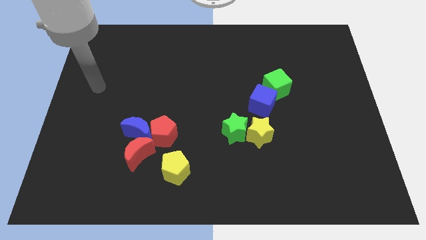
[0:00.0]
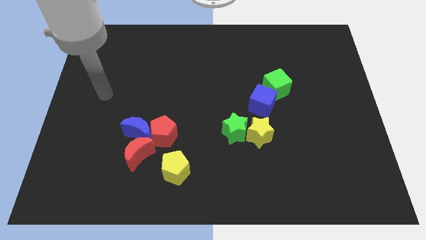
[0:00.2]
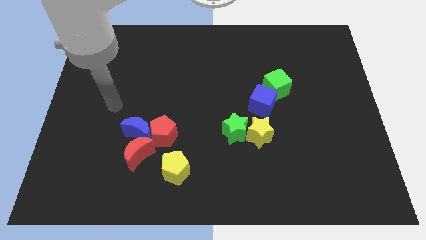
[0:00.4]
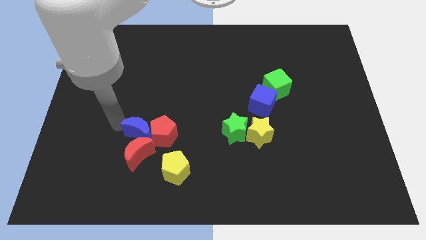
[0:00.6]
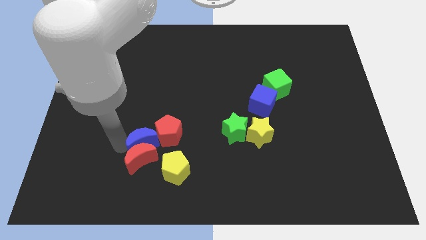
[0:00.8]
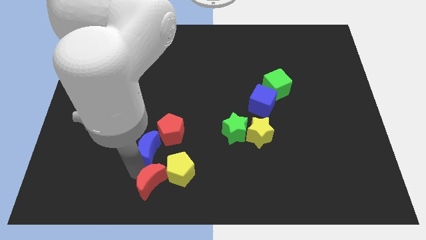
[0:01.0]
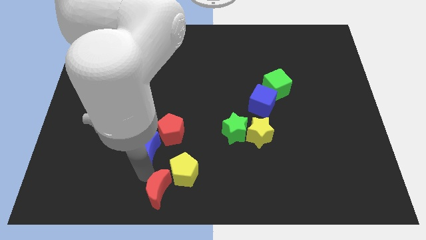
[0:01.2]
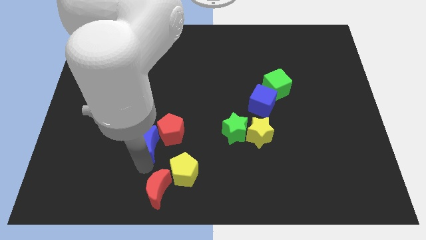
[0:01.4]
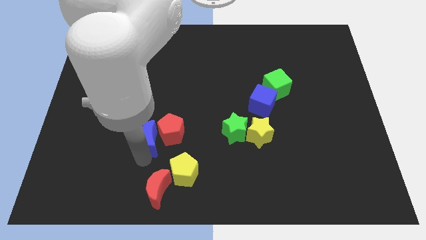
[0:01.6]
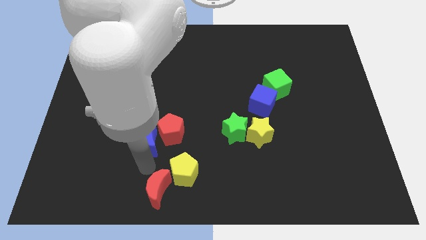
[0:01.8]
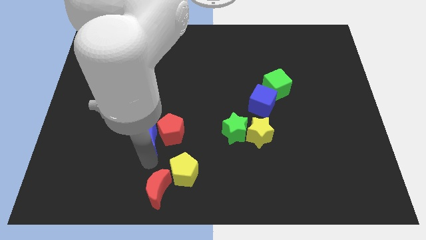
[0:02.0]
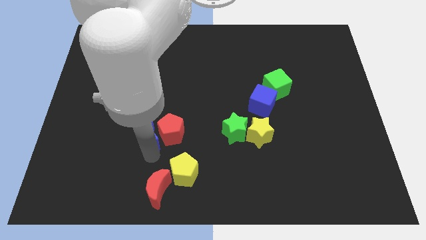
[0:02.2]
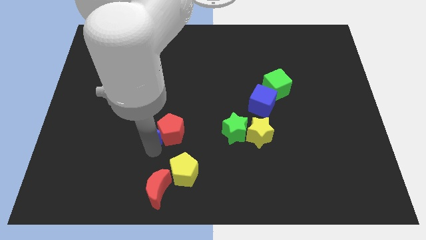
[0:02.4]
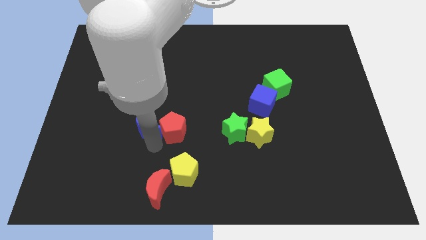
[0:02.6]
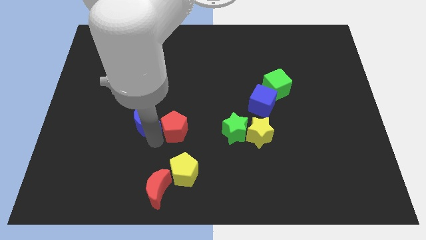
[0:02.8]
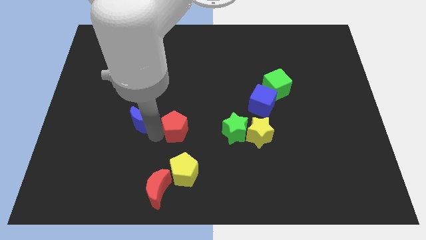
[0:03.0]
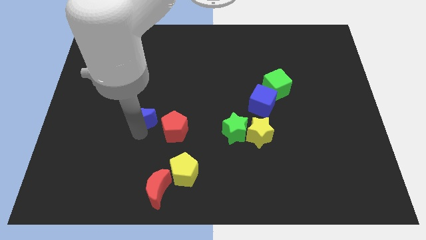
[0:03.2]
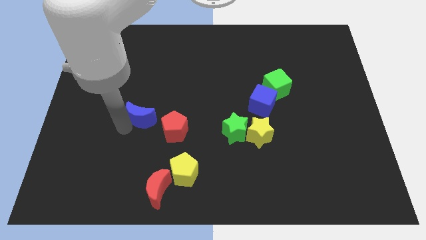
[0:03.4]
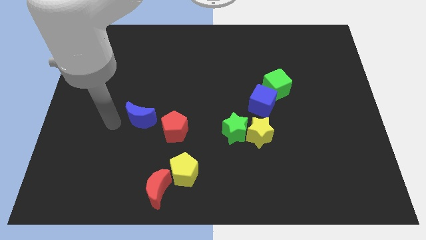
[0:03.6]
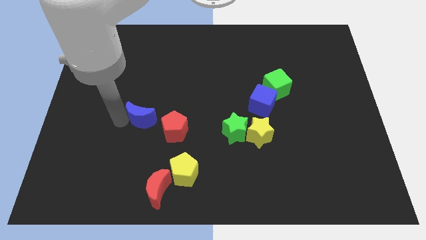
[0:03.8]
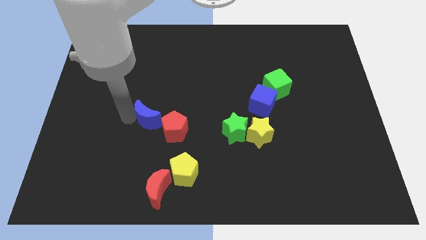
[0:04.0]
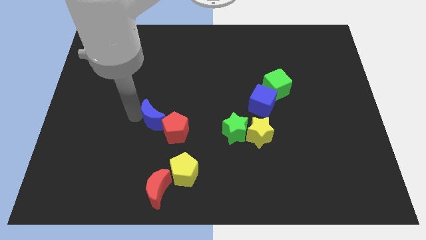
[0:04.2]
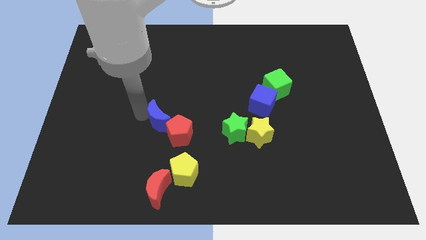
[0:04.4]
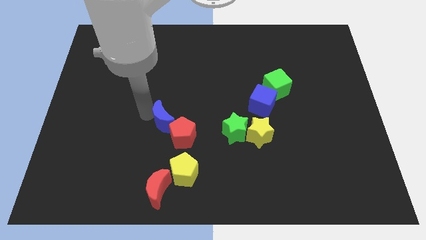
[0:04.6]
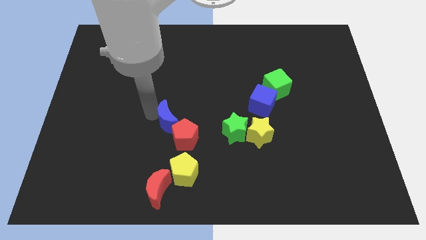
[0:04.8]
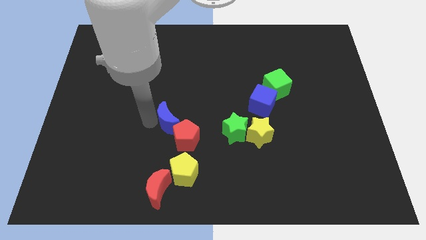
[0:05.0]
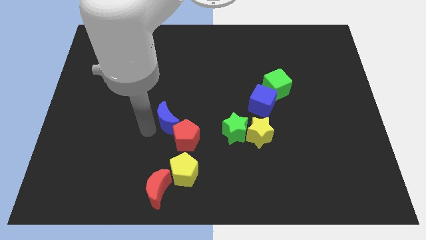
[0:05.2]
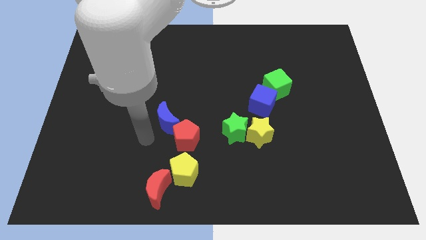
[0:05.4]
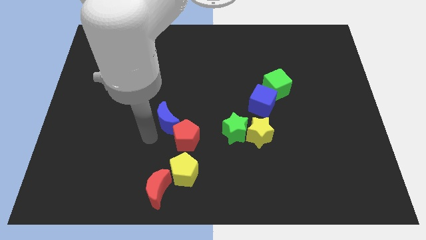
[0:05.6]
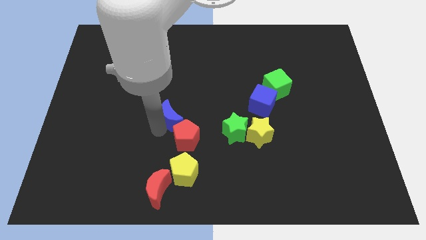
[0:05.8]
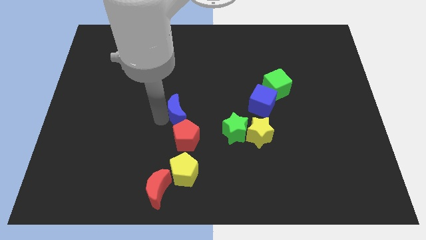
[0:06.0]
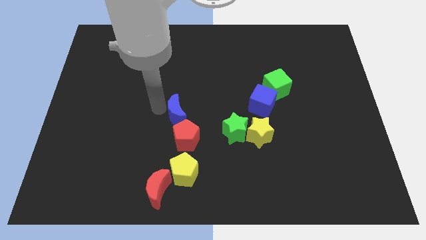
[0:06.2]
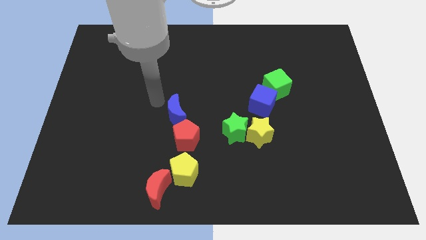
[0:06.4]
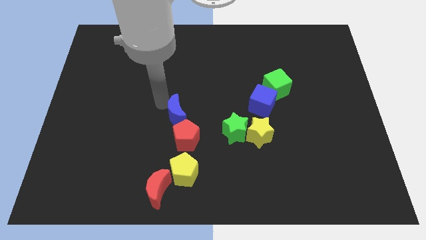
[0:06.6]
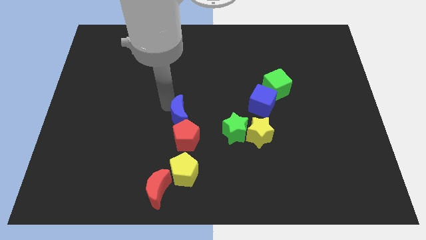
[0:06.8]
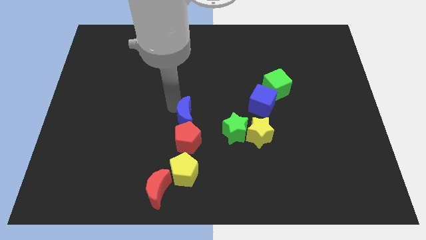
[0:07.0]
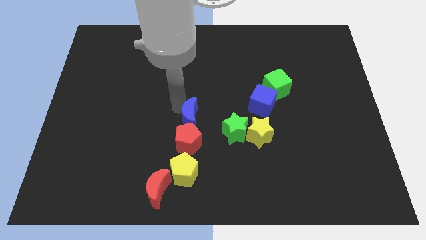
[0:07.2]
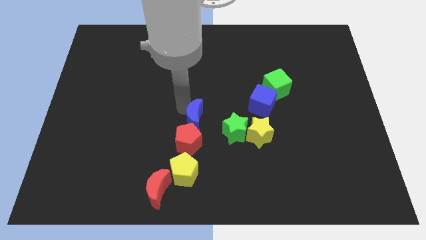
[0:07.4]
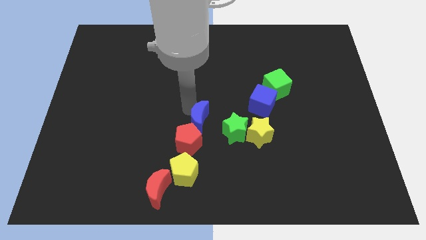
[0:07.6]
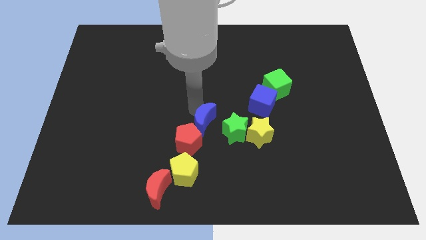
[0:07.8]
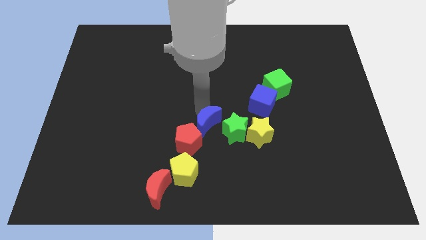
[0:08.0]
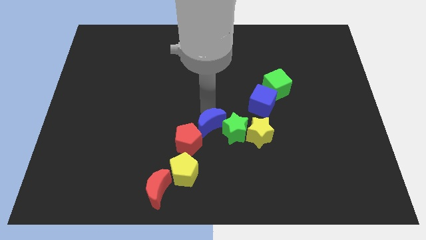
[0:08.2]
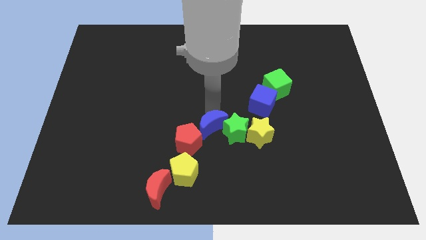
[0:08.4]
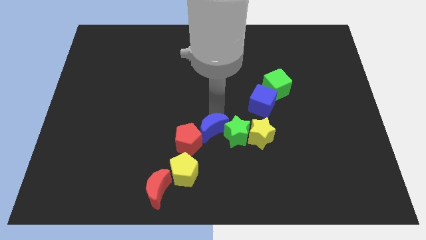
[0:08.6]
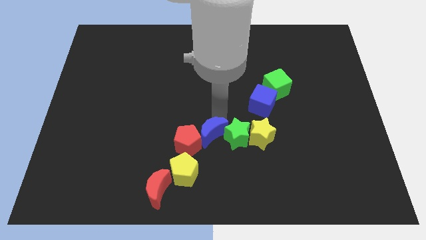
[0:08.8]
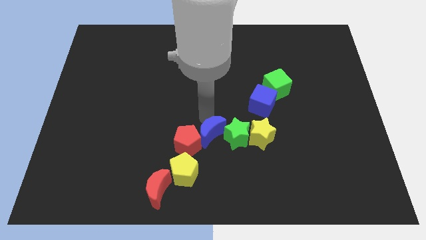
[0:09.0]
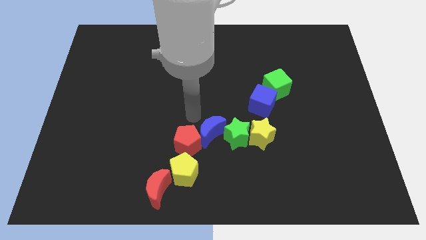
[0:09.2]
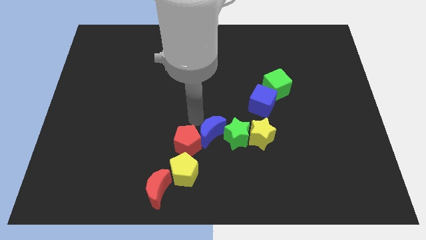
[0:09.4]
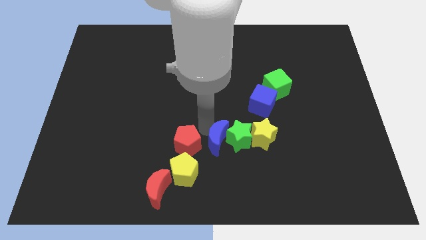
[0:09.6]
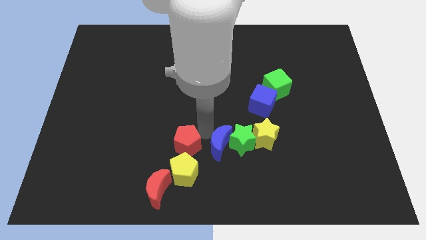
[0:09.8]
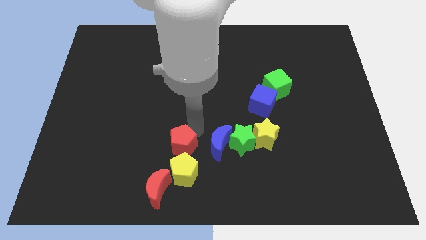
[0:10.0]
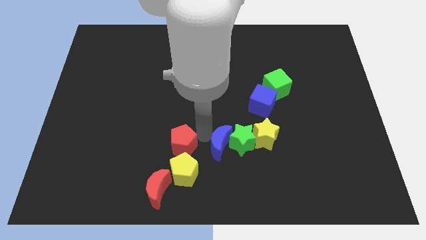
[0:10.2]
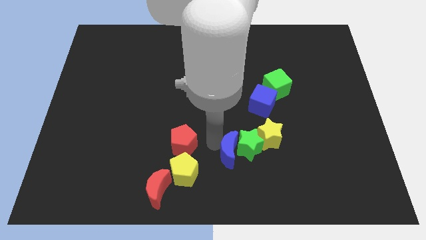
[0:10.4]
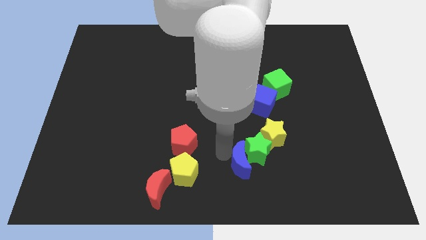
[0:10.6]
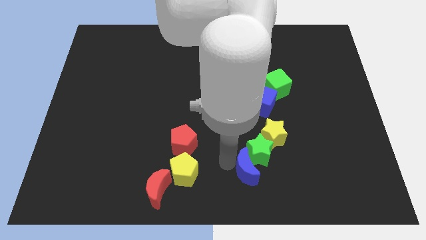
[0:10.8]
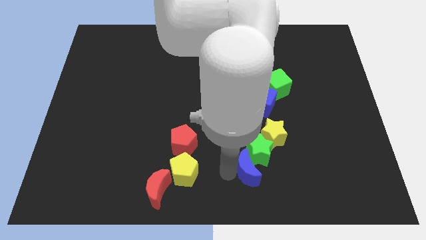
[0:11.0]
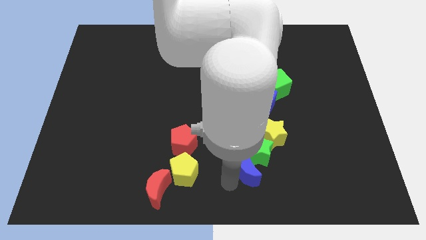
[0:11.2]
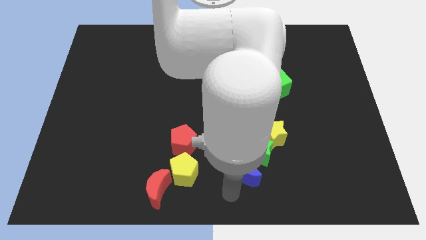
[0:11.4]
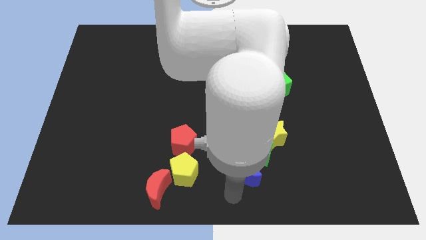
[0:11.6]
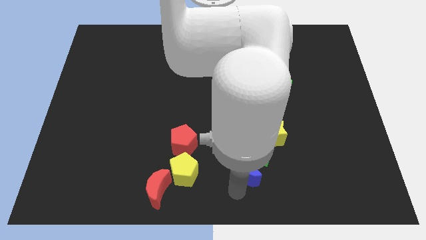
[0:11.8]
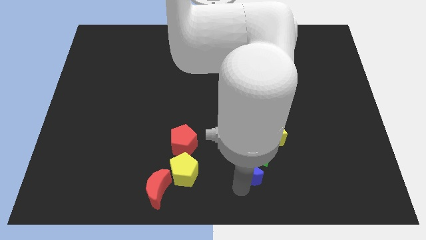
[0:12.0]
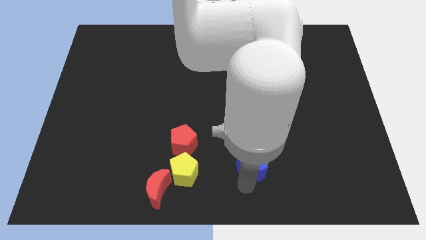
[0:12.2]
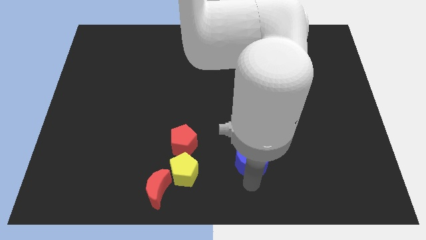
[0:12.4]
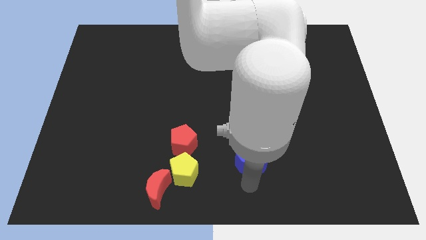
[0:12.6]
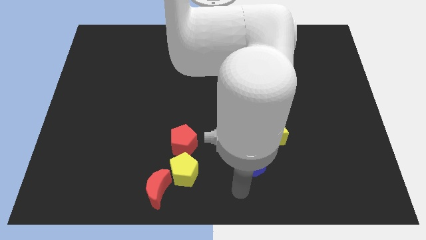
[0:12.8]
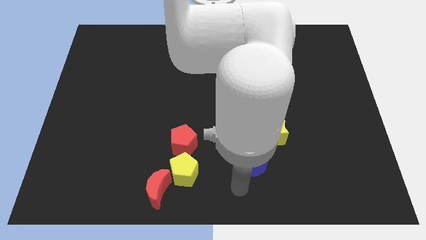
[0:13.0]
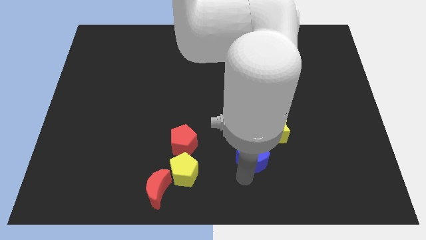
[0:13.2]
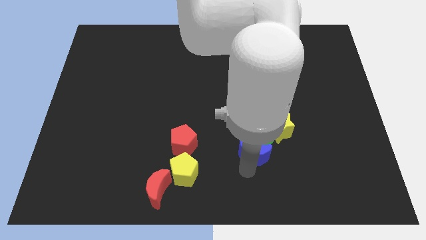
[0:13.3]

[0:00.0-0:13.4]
push the blue moon to the bottom of the blue cube

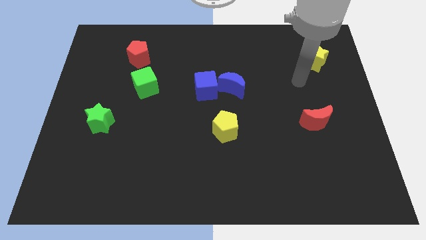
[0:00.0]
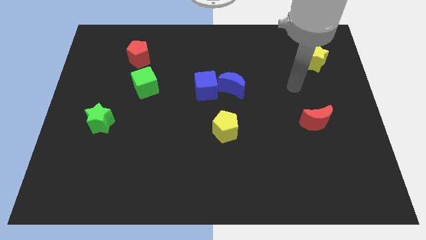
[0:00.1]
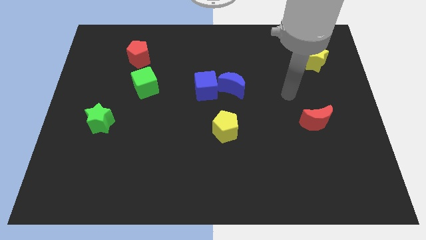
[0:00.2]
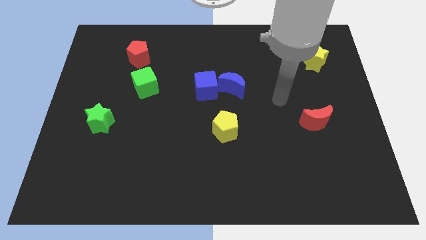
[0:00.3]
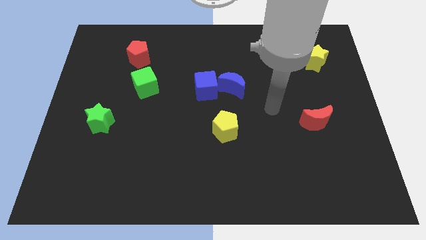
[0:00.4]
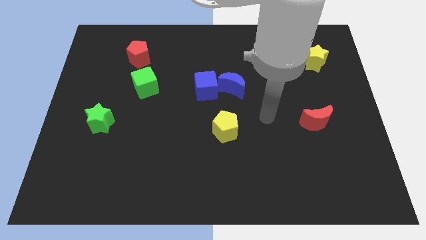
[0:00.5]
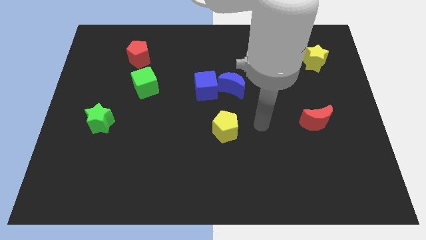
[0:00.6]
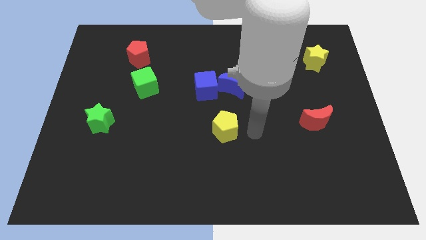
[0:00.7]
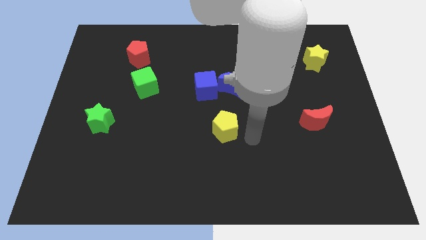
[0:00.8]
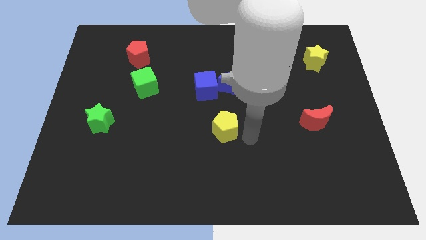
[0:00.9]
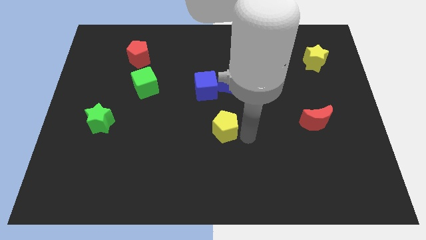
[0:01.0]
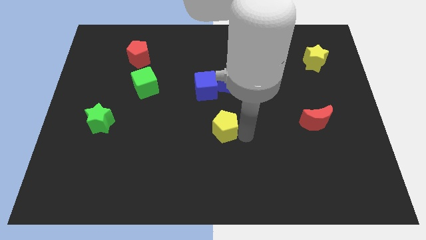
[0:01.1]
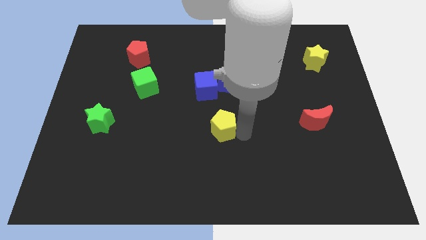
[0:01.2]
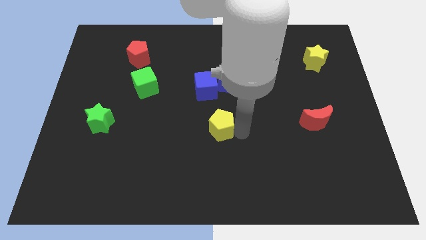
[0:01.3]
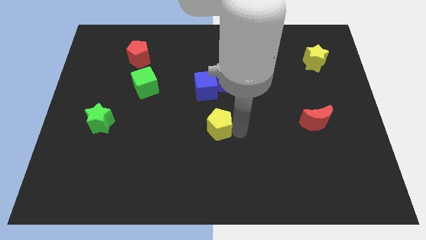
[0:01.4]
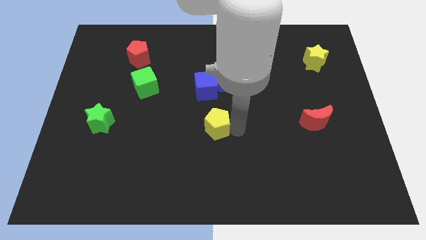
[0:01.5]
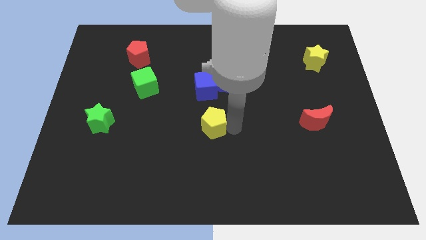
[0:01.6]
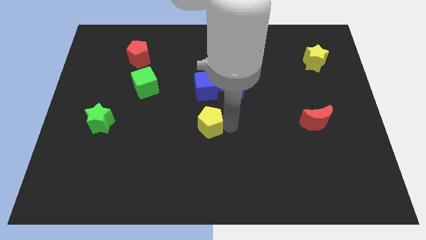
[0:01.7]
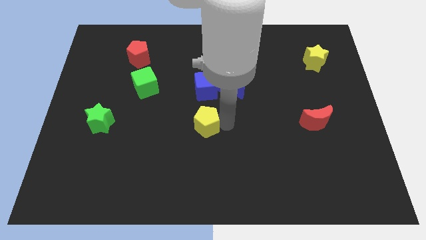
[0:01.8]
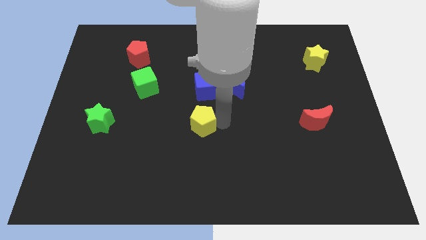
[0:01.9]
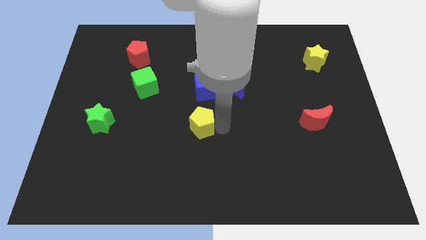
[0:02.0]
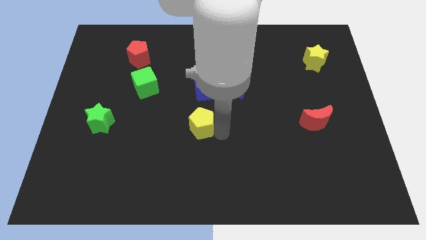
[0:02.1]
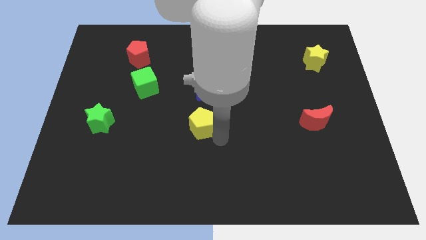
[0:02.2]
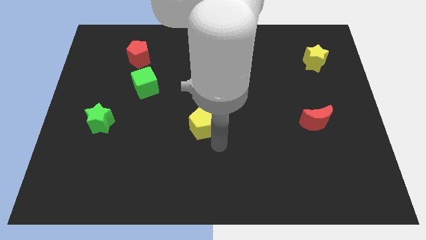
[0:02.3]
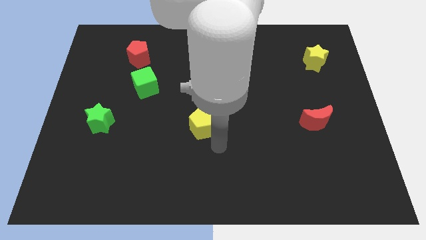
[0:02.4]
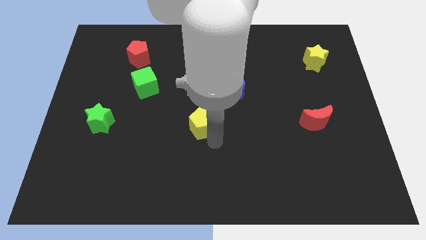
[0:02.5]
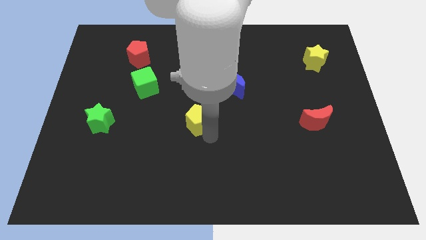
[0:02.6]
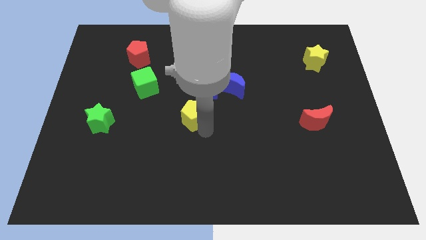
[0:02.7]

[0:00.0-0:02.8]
move the yellow pentagon to the bottom left of the blue cube
